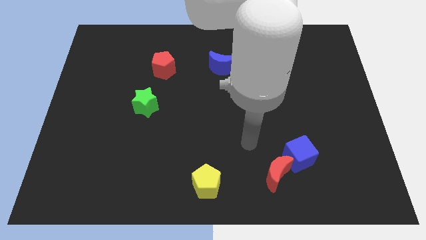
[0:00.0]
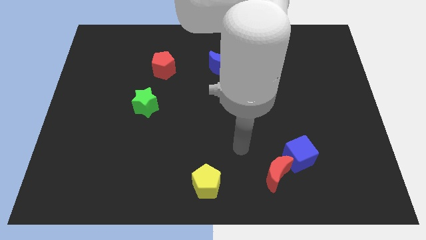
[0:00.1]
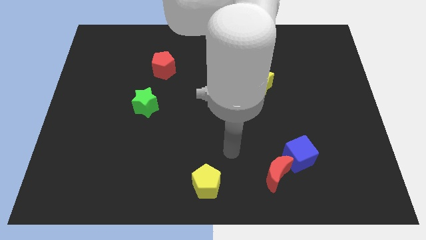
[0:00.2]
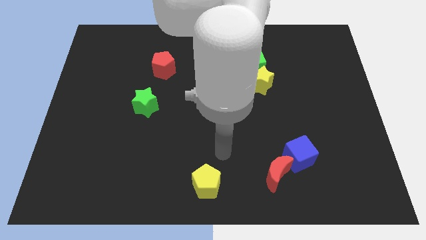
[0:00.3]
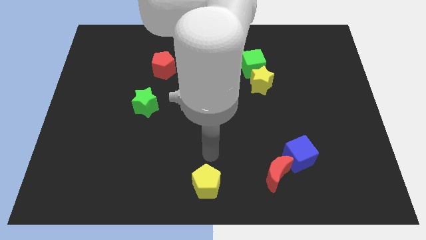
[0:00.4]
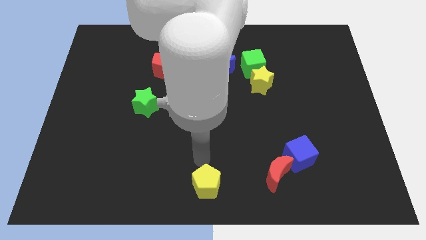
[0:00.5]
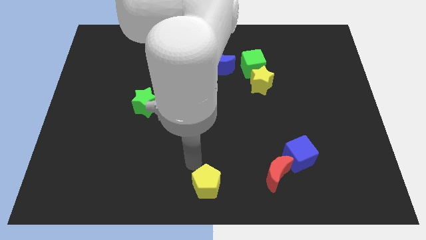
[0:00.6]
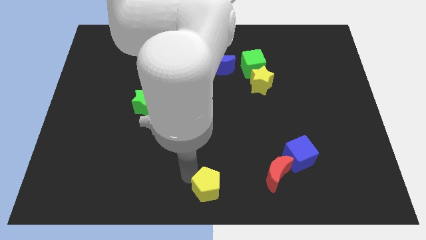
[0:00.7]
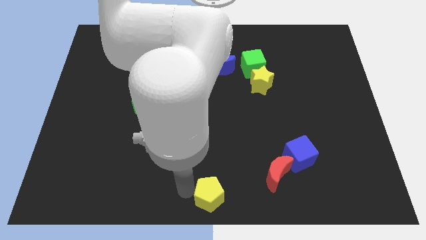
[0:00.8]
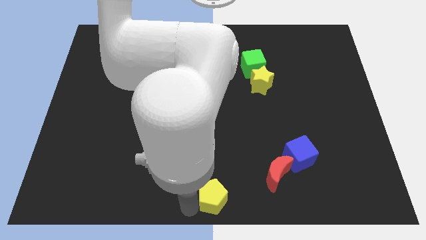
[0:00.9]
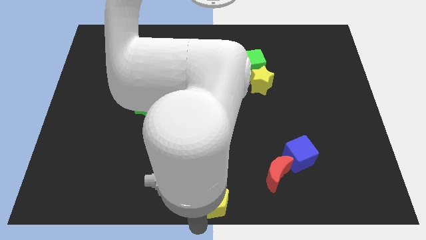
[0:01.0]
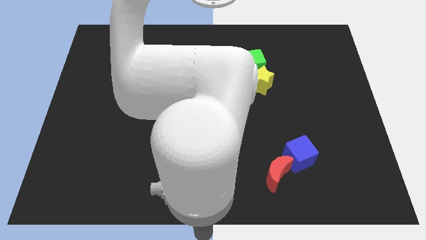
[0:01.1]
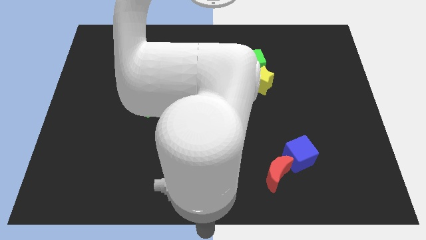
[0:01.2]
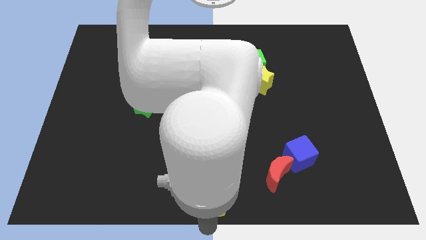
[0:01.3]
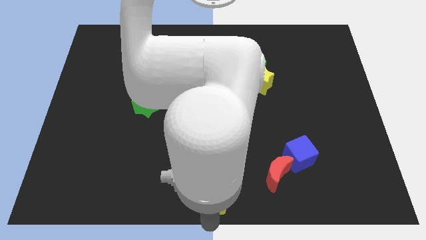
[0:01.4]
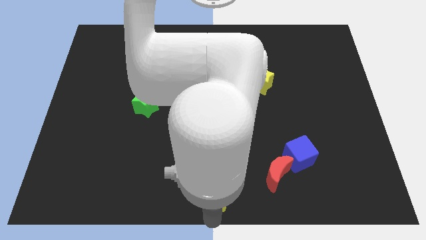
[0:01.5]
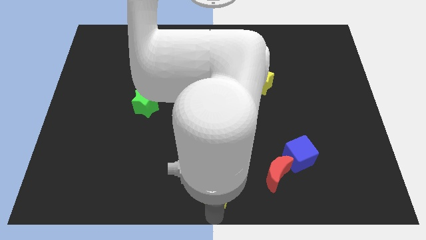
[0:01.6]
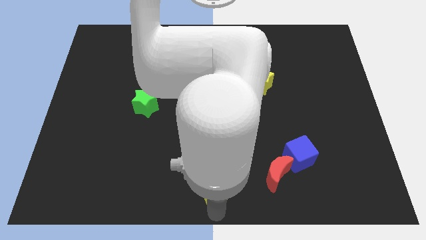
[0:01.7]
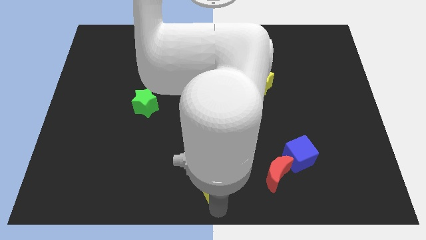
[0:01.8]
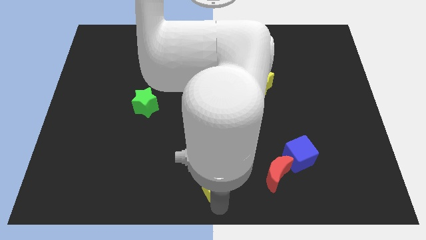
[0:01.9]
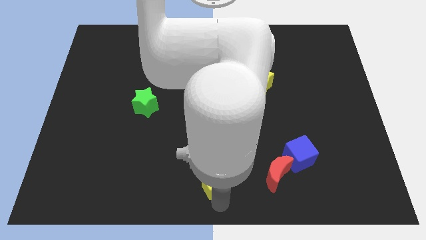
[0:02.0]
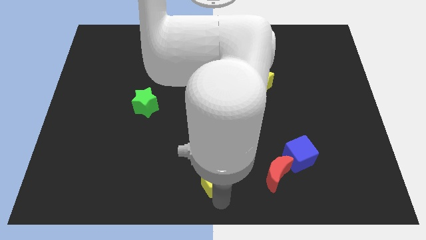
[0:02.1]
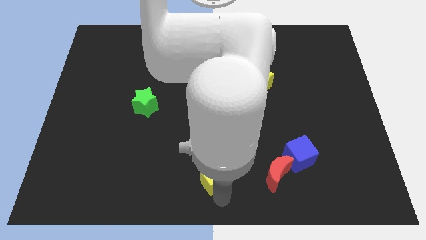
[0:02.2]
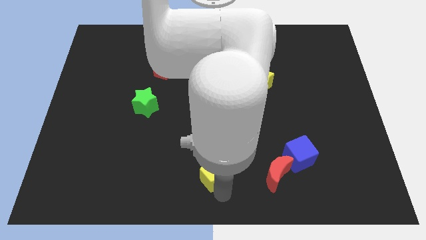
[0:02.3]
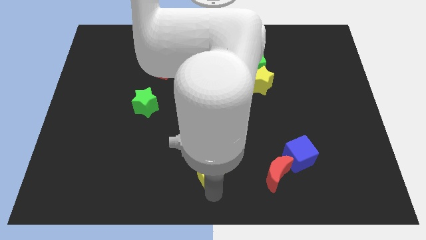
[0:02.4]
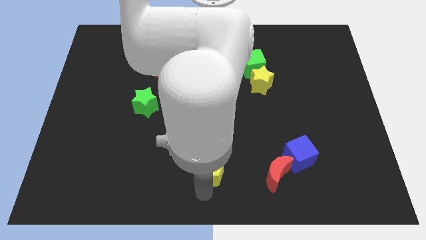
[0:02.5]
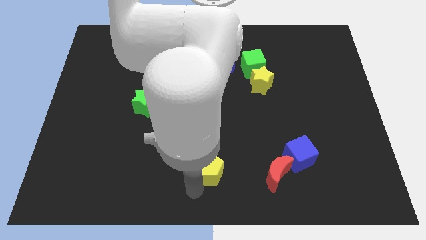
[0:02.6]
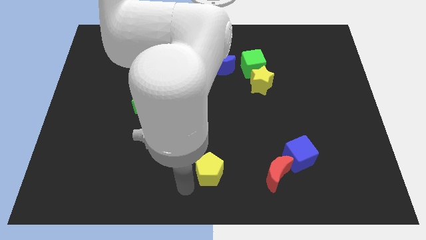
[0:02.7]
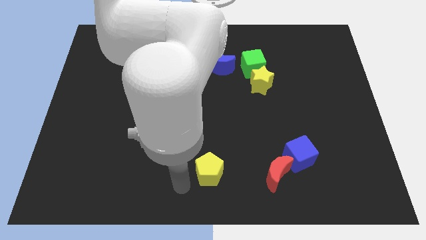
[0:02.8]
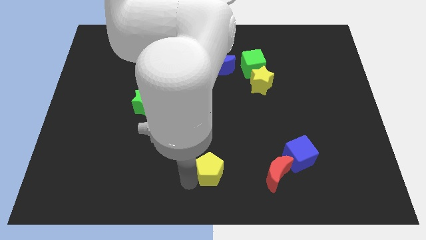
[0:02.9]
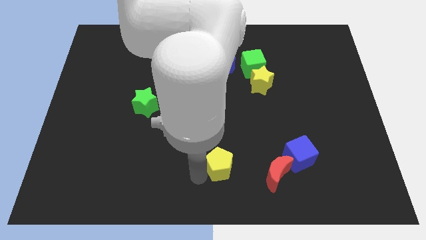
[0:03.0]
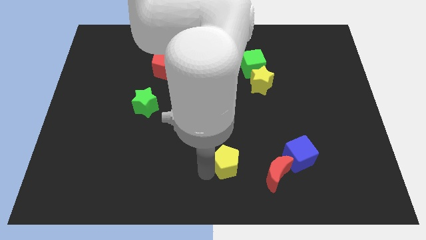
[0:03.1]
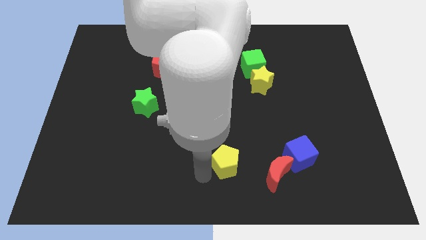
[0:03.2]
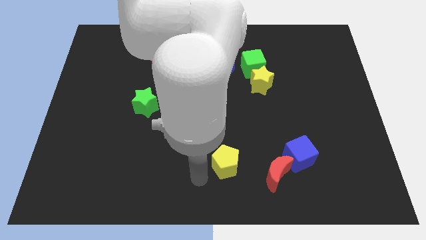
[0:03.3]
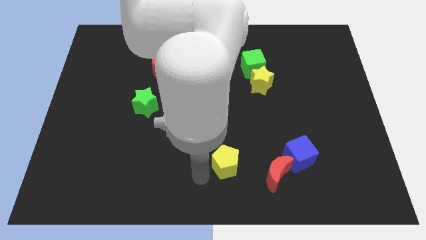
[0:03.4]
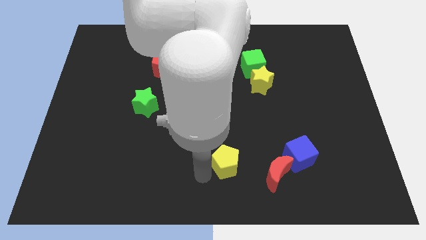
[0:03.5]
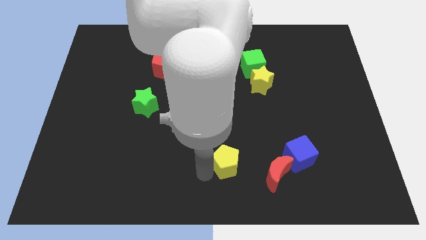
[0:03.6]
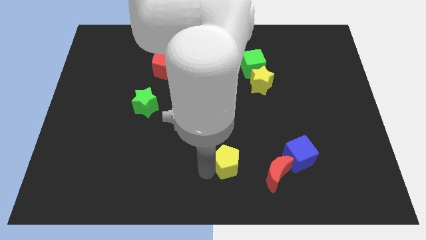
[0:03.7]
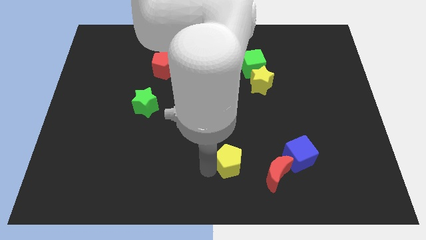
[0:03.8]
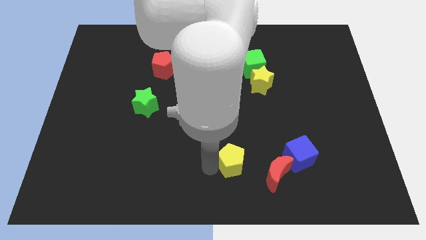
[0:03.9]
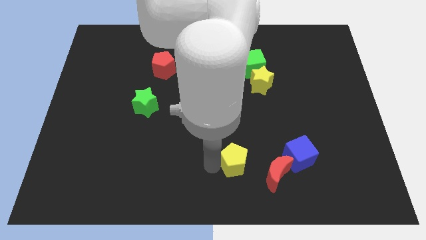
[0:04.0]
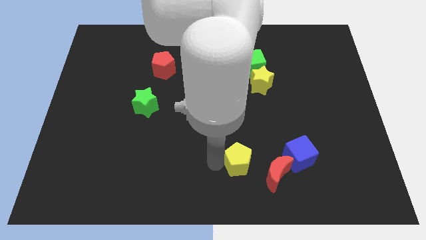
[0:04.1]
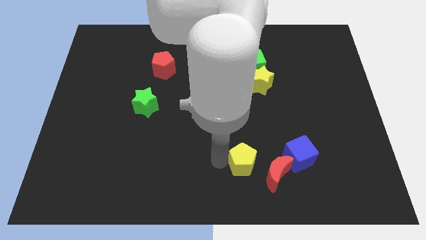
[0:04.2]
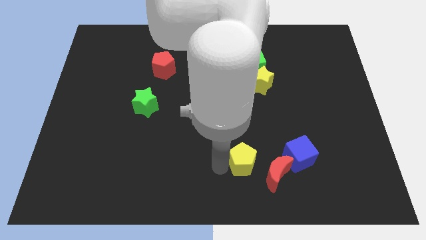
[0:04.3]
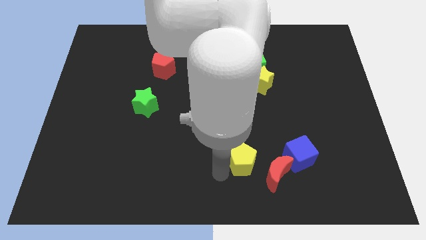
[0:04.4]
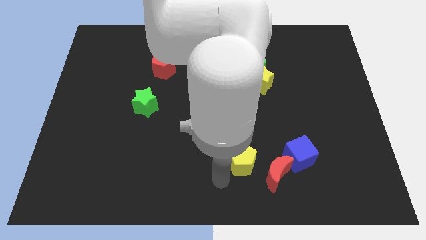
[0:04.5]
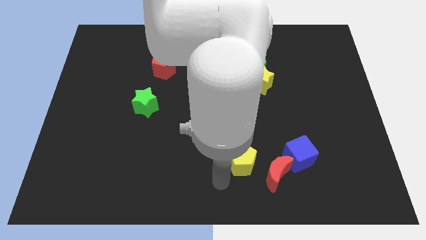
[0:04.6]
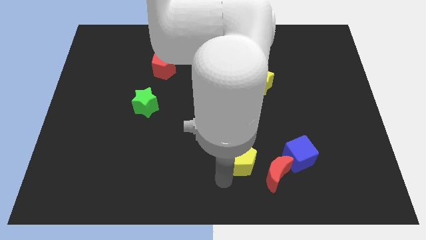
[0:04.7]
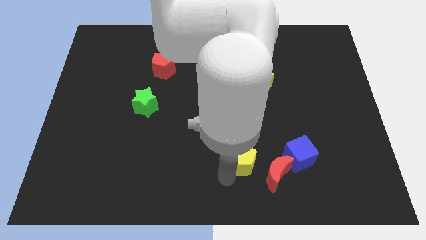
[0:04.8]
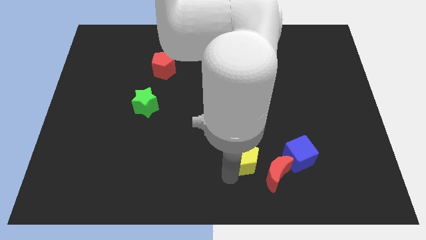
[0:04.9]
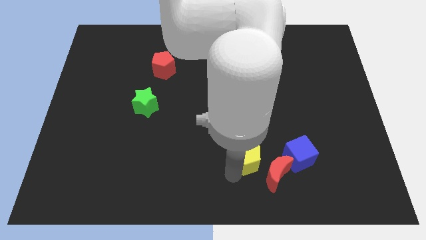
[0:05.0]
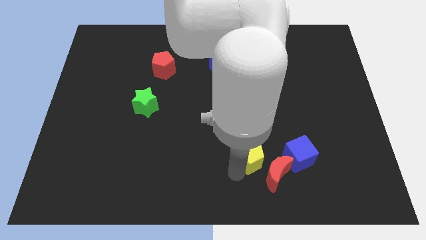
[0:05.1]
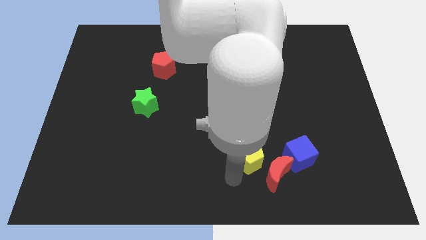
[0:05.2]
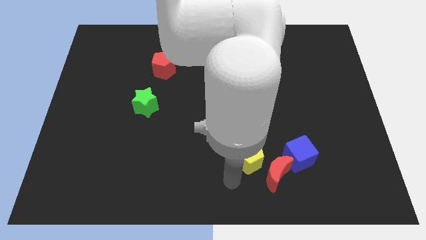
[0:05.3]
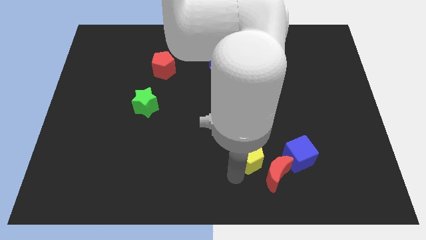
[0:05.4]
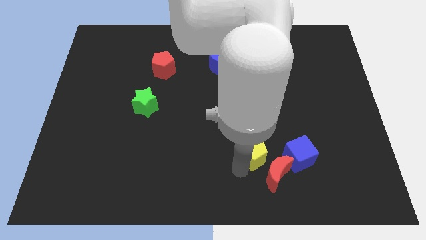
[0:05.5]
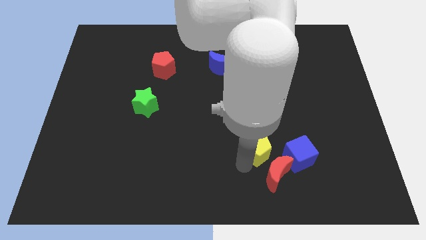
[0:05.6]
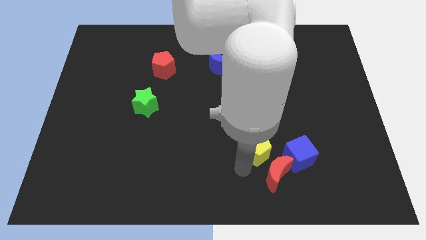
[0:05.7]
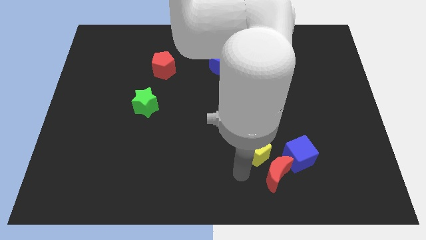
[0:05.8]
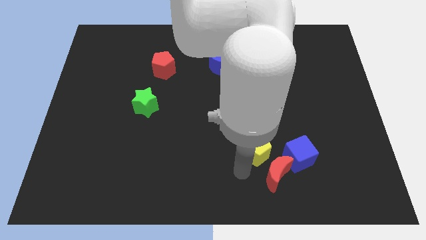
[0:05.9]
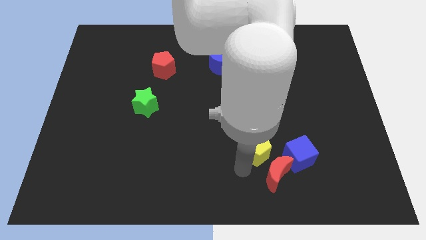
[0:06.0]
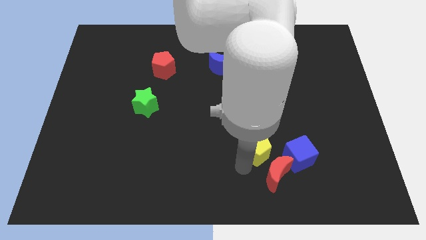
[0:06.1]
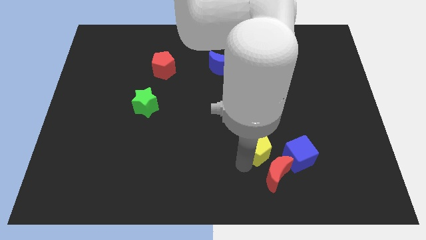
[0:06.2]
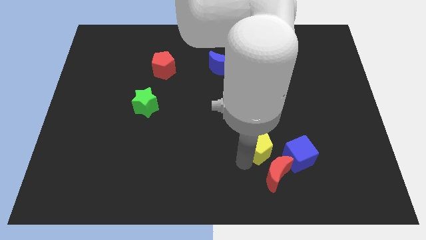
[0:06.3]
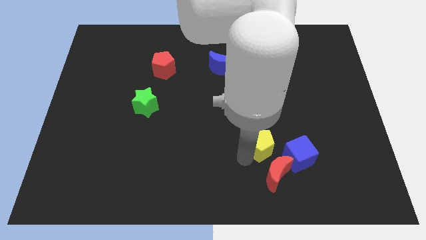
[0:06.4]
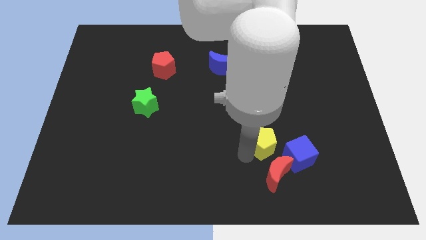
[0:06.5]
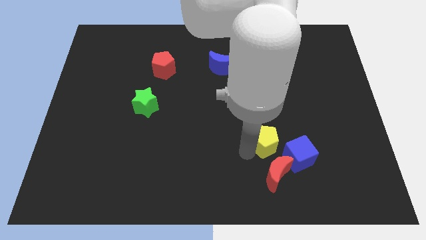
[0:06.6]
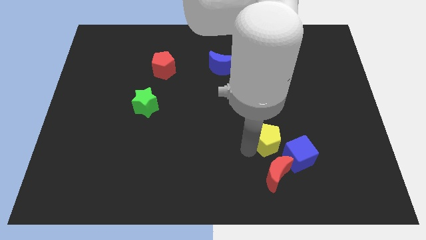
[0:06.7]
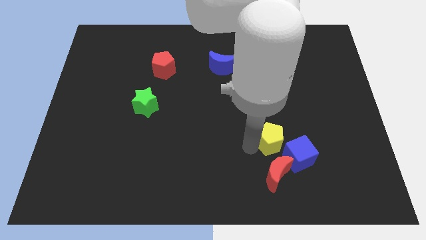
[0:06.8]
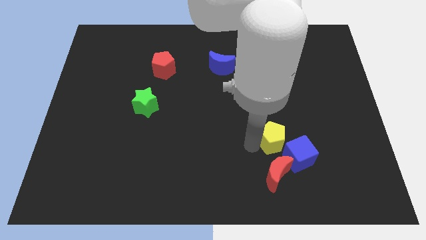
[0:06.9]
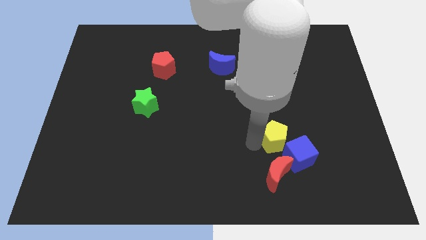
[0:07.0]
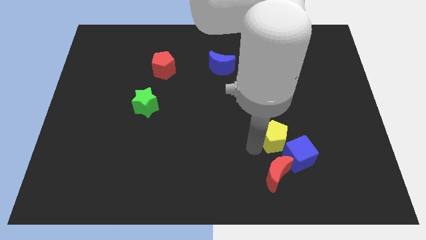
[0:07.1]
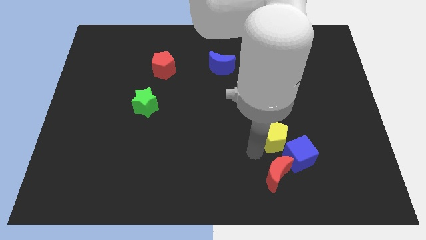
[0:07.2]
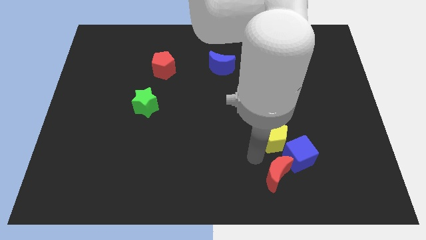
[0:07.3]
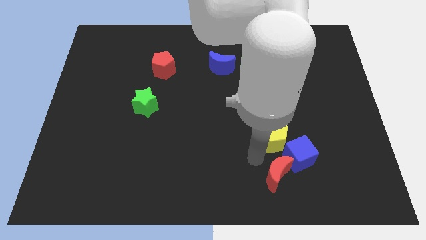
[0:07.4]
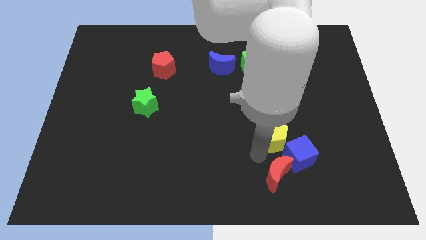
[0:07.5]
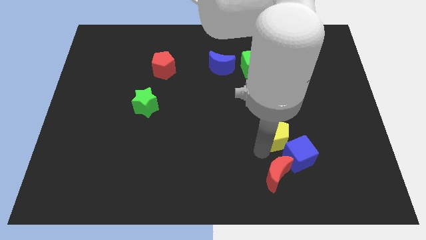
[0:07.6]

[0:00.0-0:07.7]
slide the yellow pentagon to the top of the blue cube
